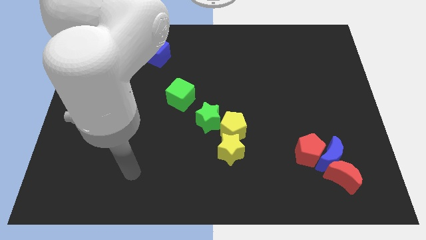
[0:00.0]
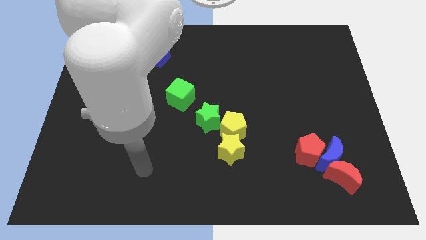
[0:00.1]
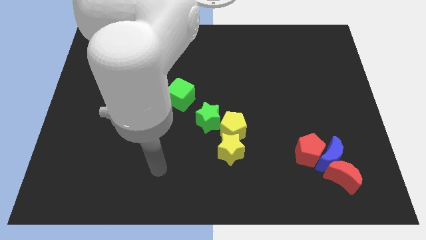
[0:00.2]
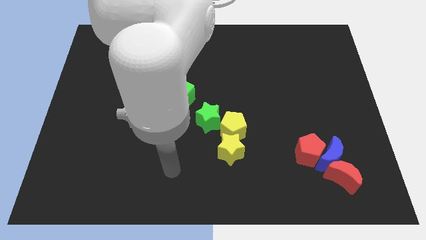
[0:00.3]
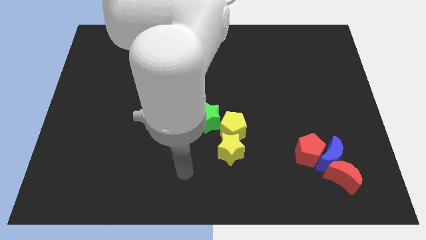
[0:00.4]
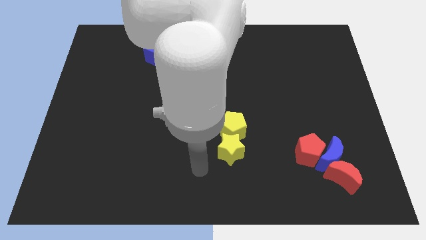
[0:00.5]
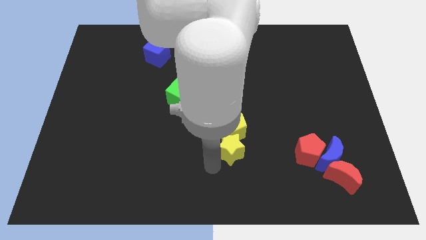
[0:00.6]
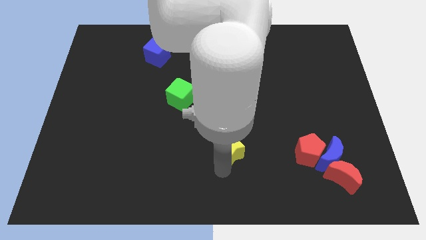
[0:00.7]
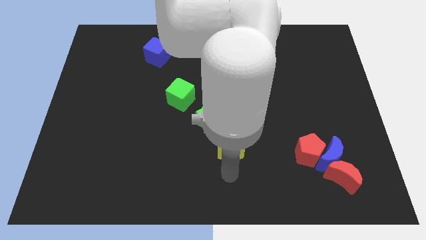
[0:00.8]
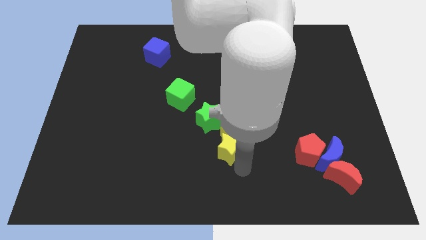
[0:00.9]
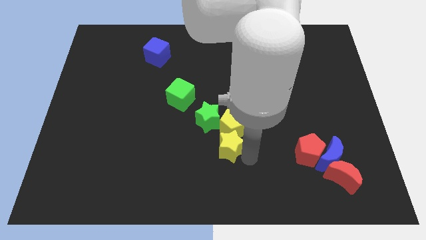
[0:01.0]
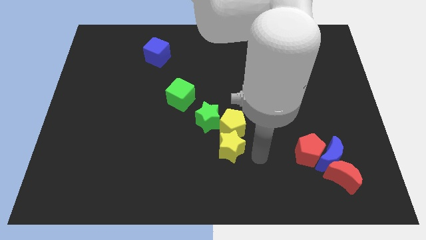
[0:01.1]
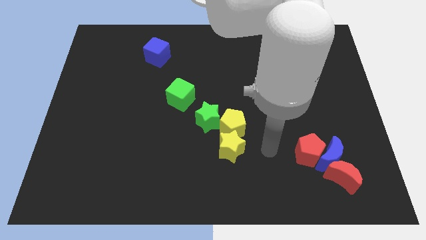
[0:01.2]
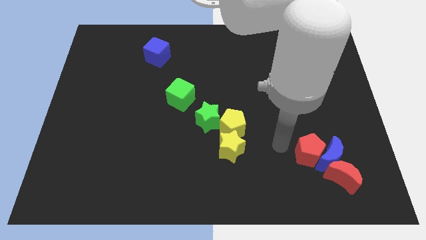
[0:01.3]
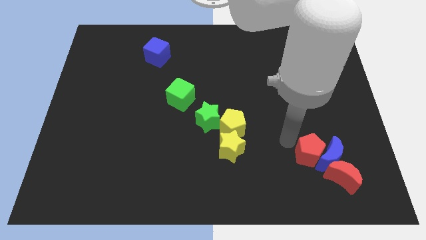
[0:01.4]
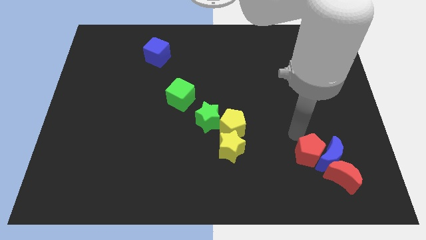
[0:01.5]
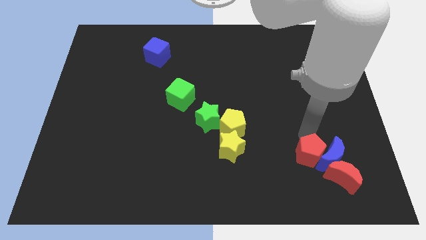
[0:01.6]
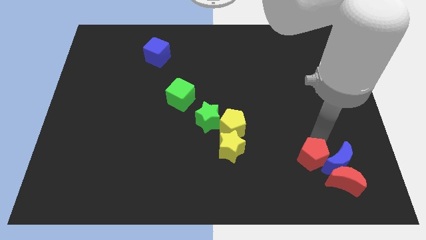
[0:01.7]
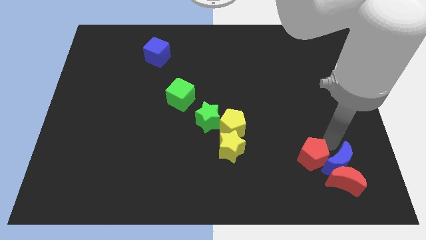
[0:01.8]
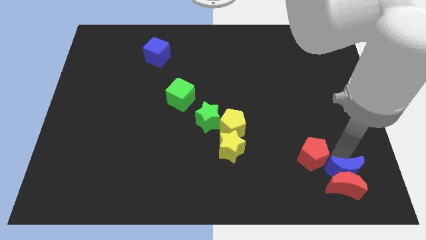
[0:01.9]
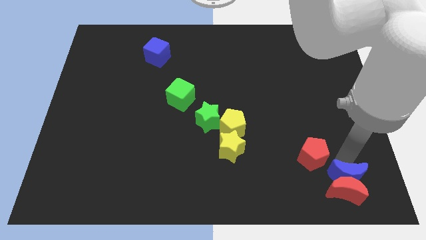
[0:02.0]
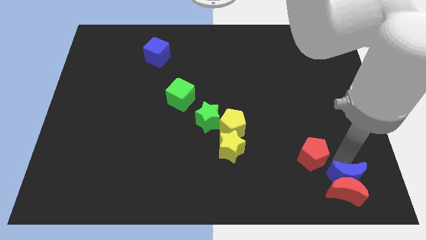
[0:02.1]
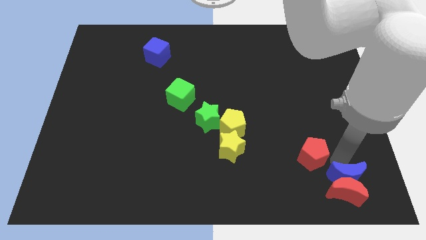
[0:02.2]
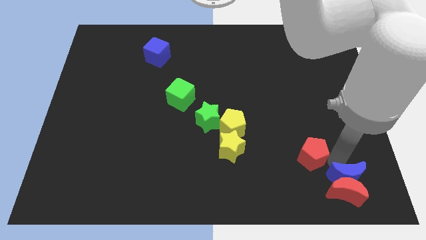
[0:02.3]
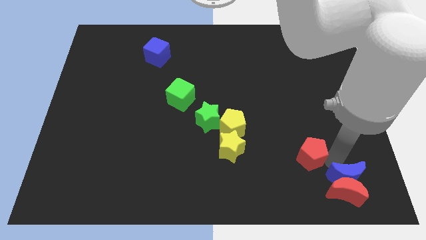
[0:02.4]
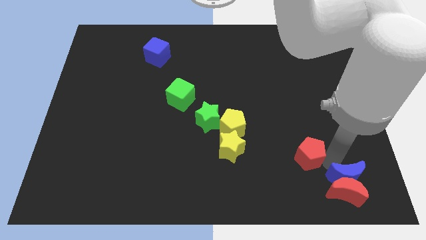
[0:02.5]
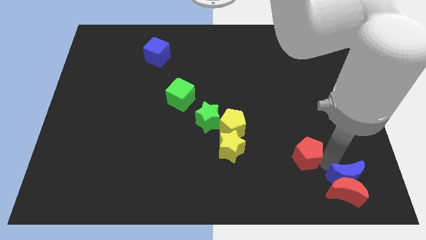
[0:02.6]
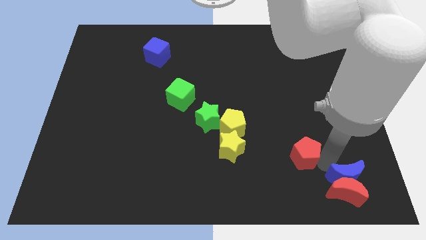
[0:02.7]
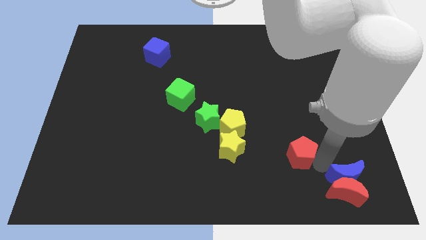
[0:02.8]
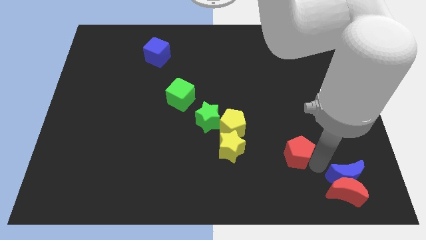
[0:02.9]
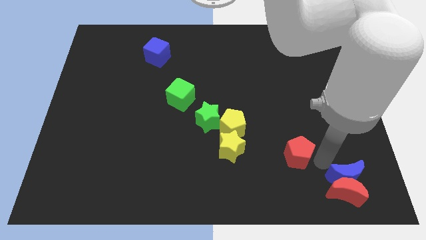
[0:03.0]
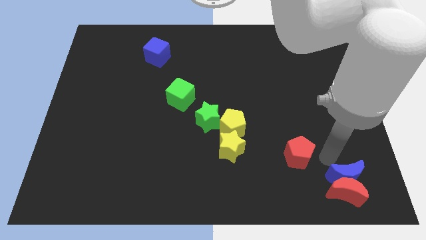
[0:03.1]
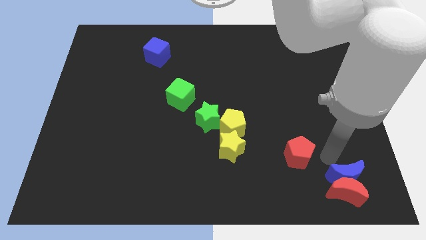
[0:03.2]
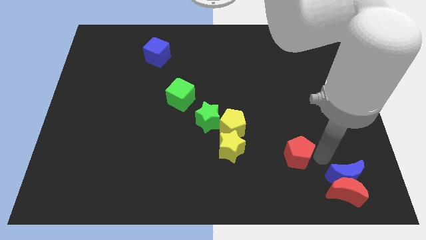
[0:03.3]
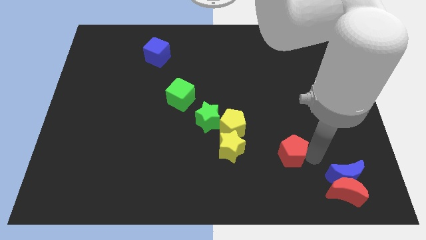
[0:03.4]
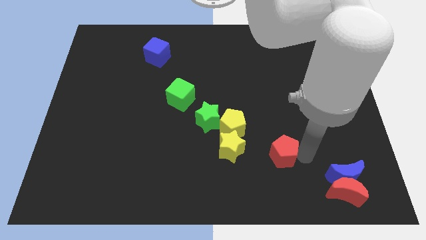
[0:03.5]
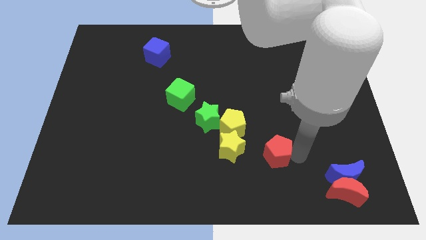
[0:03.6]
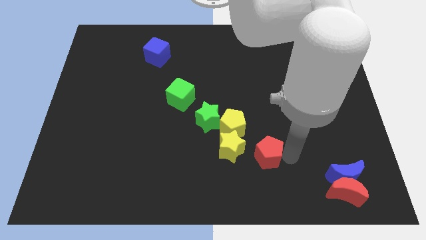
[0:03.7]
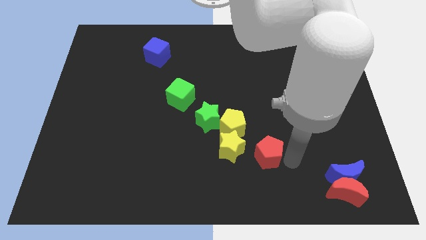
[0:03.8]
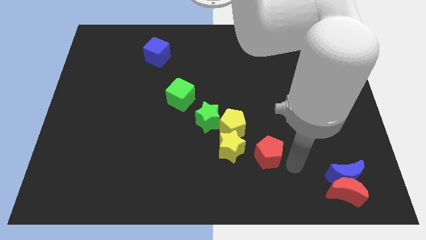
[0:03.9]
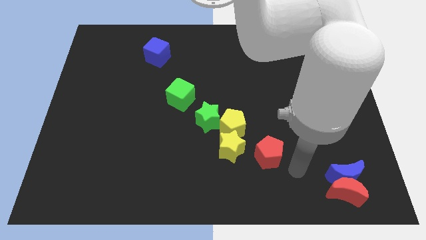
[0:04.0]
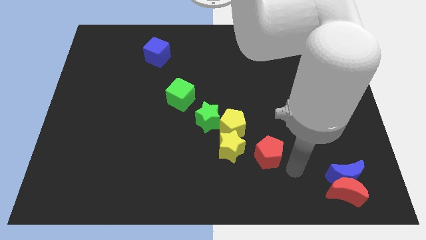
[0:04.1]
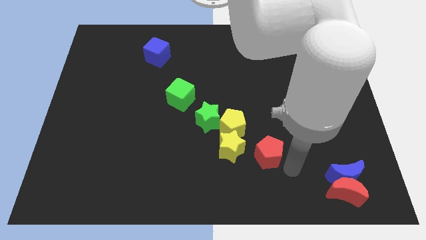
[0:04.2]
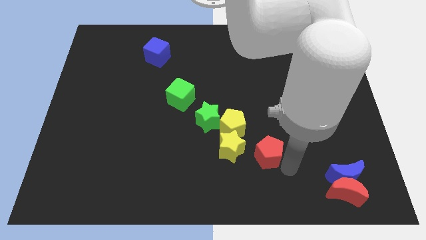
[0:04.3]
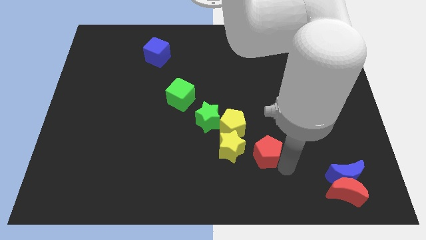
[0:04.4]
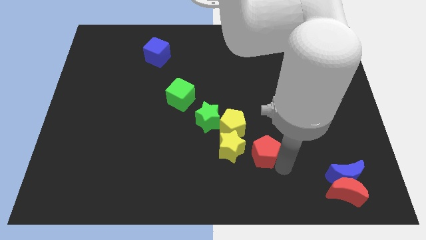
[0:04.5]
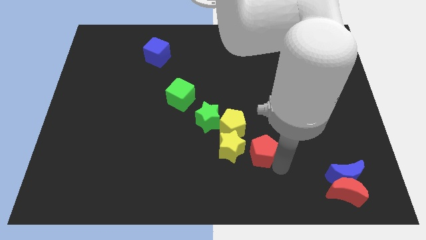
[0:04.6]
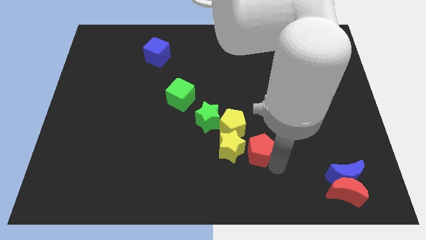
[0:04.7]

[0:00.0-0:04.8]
move the red pentagon to the yellow star

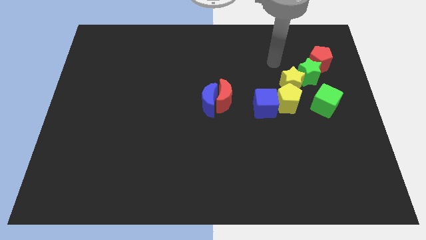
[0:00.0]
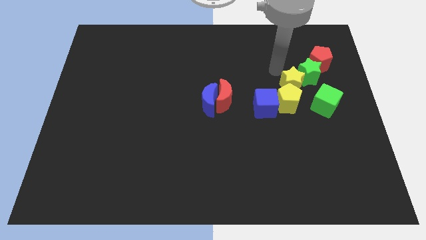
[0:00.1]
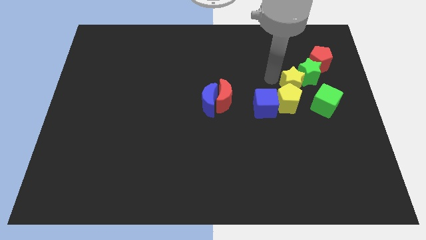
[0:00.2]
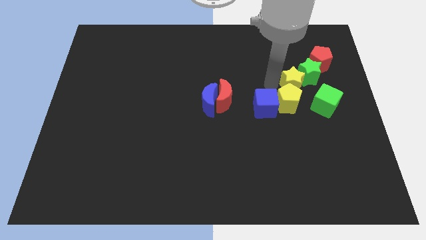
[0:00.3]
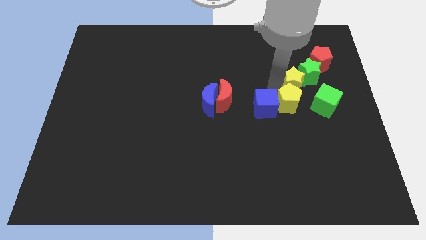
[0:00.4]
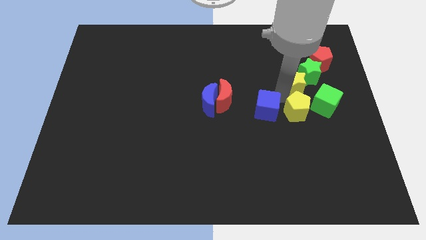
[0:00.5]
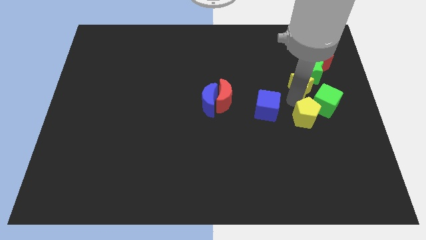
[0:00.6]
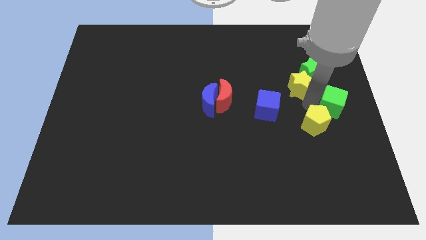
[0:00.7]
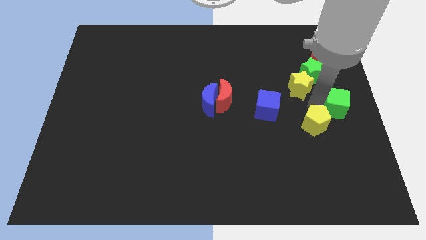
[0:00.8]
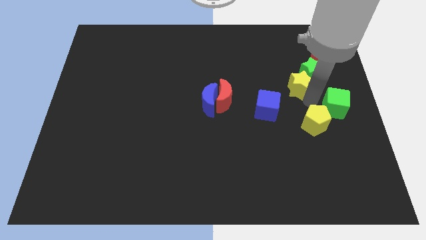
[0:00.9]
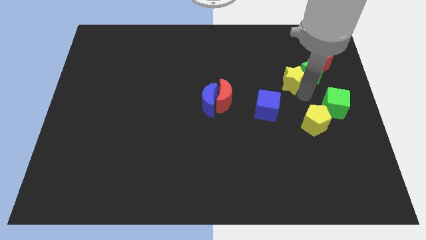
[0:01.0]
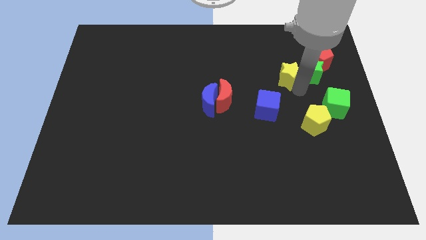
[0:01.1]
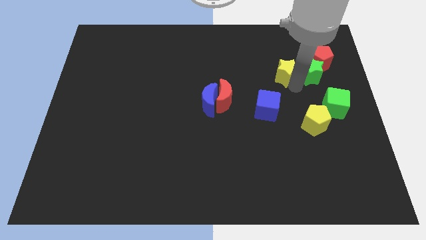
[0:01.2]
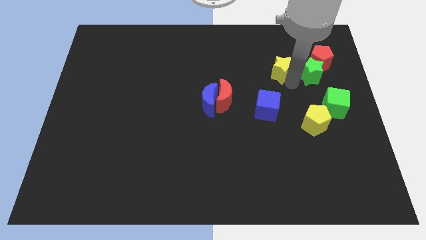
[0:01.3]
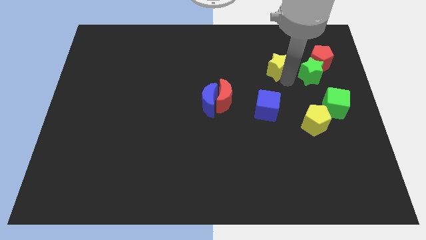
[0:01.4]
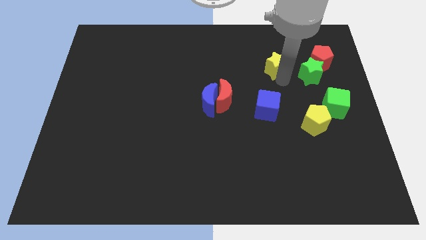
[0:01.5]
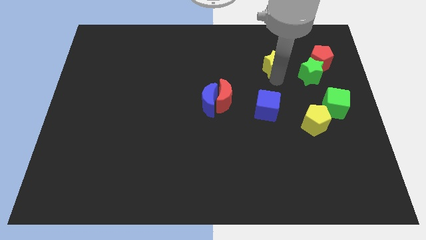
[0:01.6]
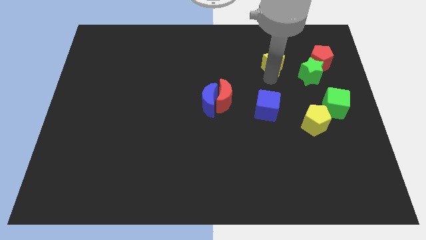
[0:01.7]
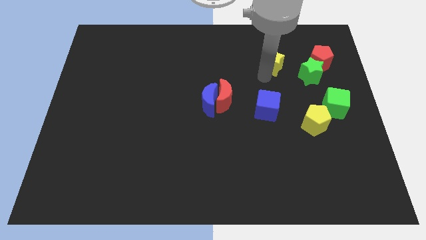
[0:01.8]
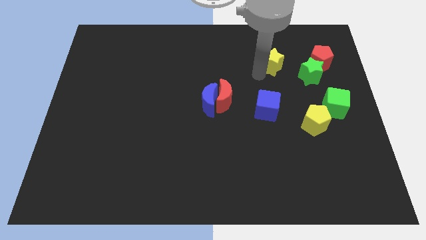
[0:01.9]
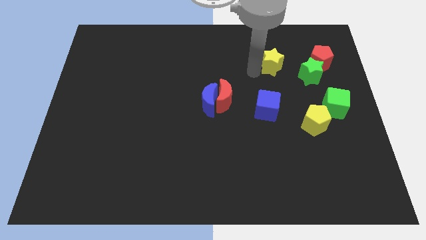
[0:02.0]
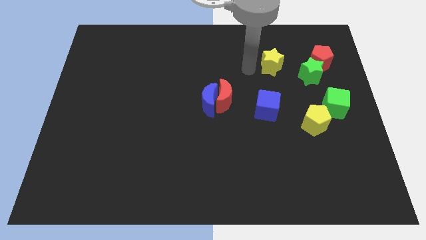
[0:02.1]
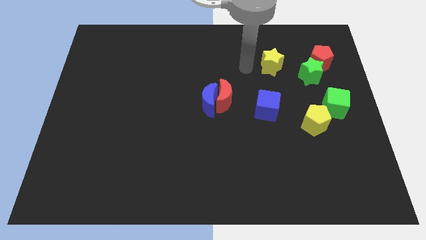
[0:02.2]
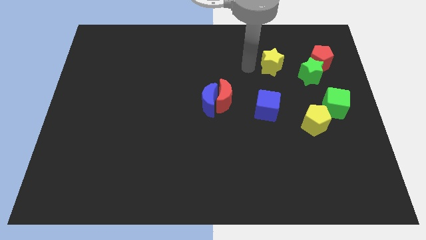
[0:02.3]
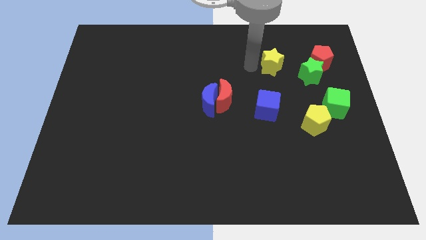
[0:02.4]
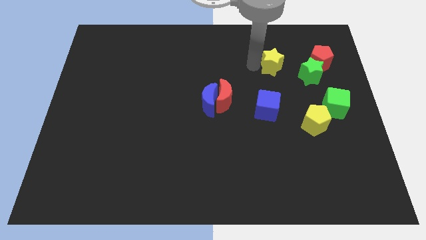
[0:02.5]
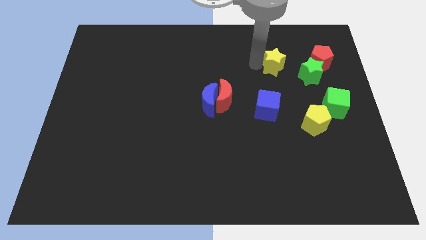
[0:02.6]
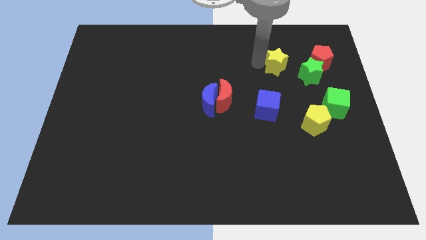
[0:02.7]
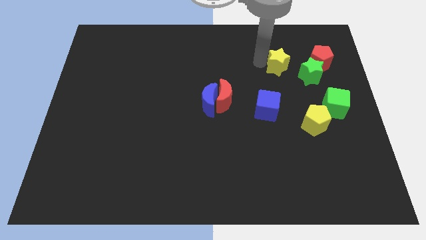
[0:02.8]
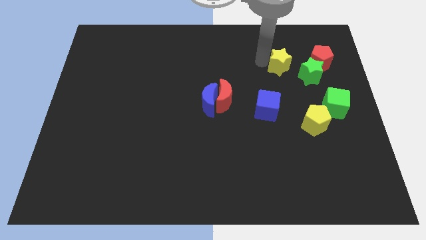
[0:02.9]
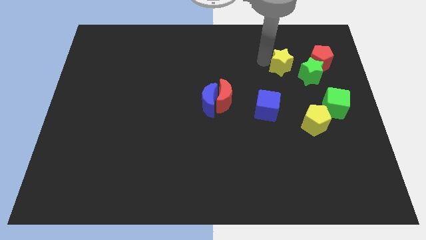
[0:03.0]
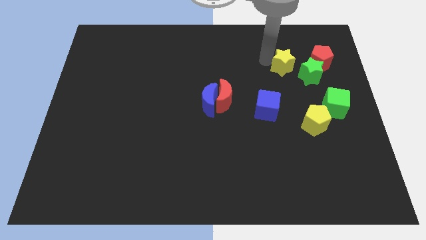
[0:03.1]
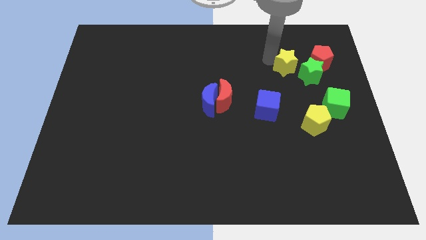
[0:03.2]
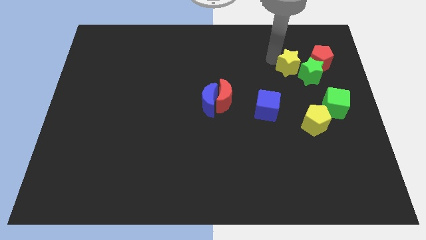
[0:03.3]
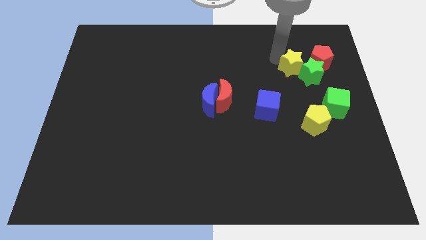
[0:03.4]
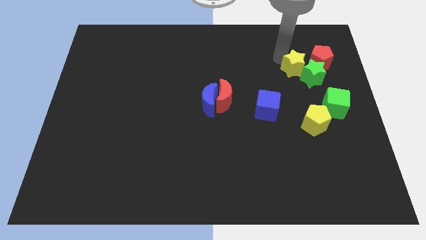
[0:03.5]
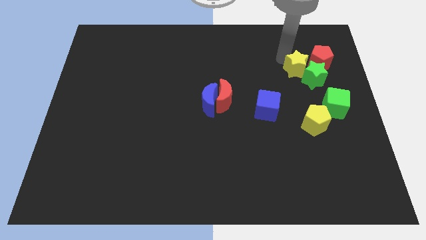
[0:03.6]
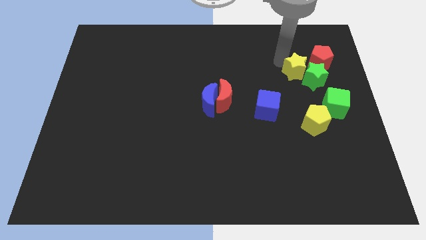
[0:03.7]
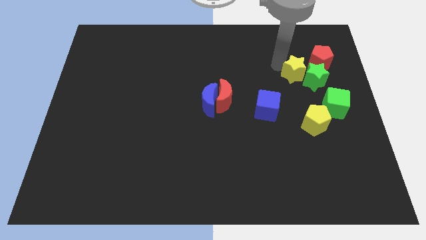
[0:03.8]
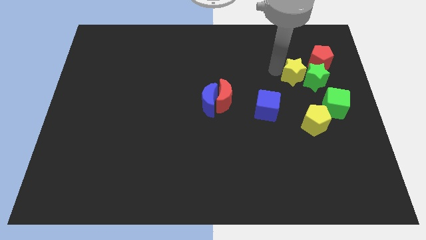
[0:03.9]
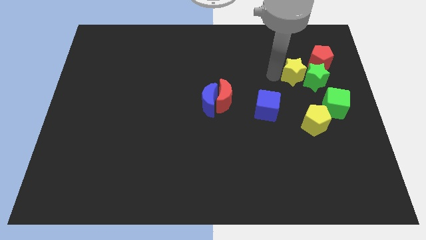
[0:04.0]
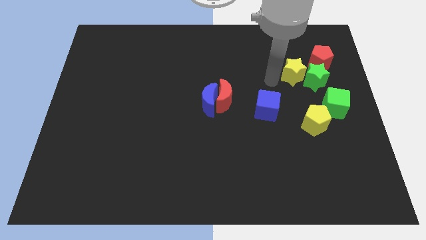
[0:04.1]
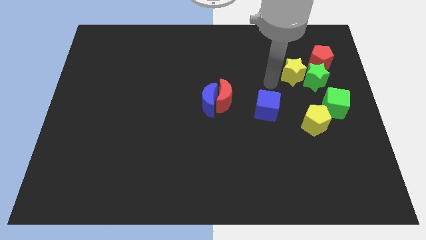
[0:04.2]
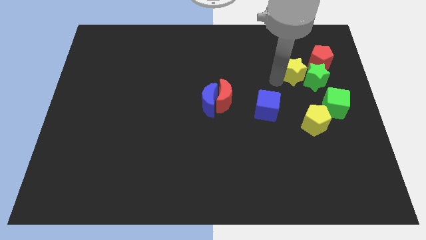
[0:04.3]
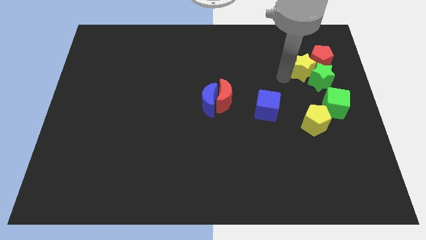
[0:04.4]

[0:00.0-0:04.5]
put the yellow star next to the red pentagon
